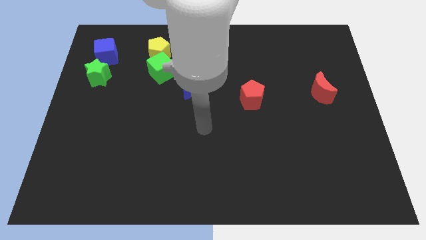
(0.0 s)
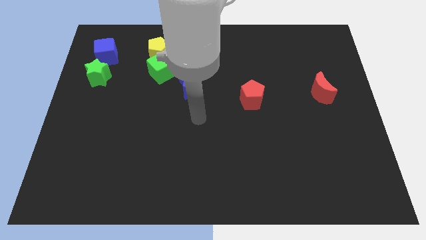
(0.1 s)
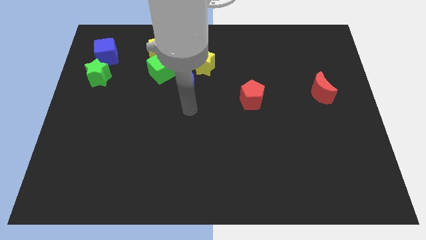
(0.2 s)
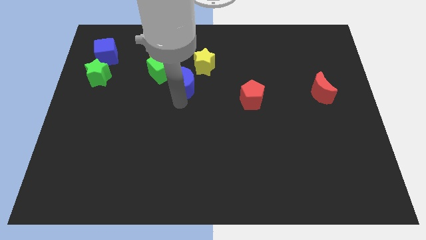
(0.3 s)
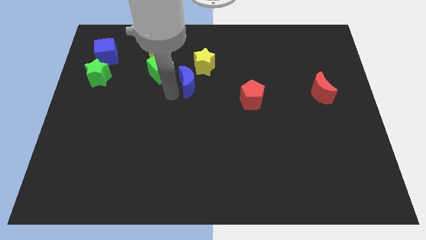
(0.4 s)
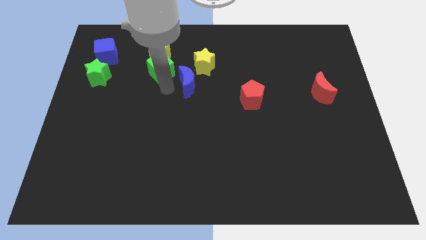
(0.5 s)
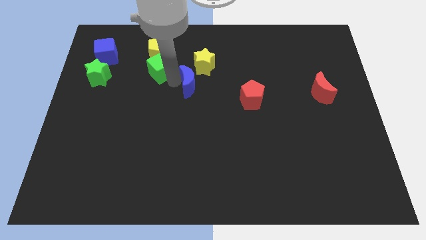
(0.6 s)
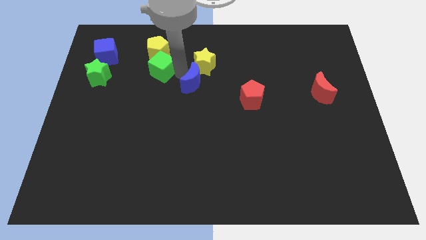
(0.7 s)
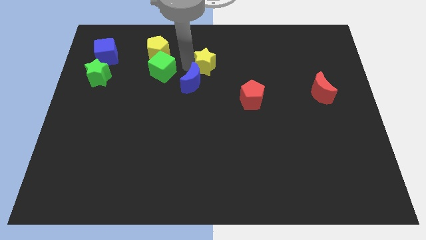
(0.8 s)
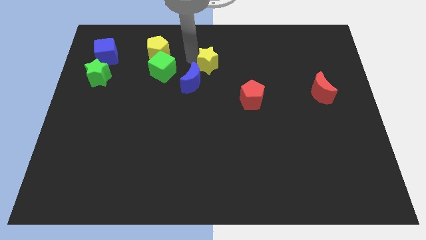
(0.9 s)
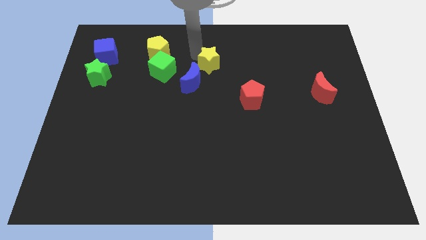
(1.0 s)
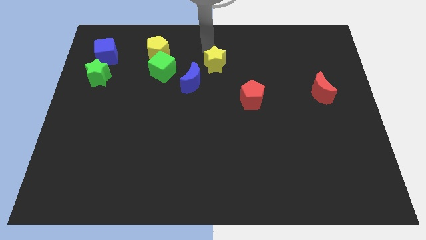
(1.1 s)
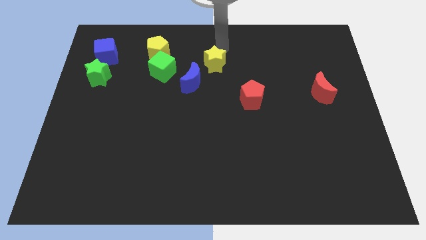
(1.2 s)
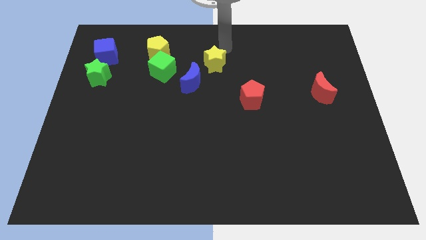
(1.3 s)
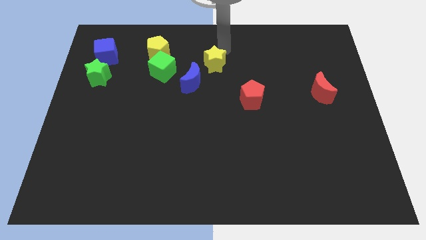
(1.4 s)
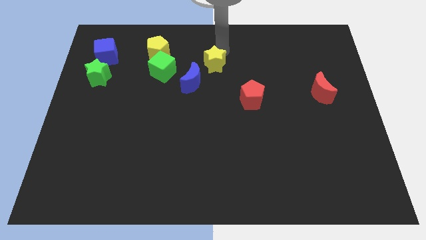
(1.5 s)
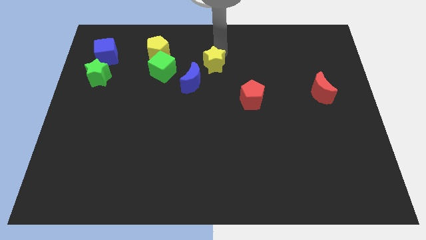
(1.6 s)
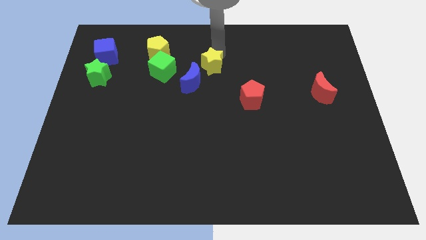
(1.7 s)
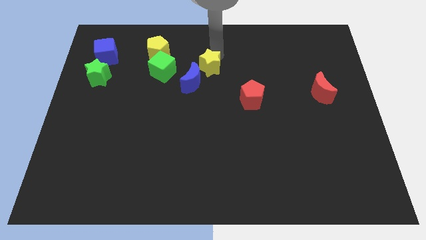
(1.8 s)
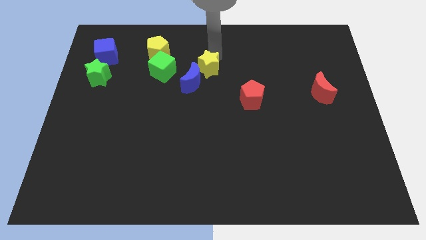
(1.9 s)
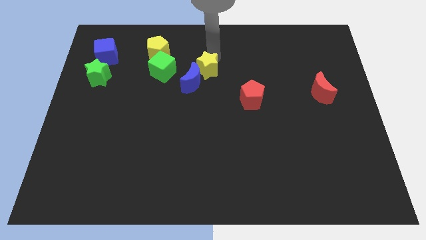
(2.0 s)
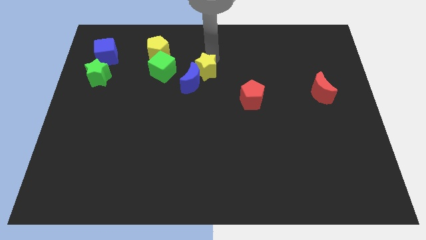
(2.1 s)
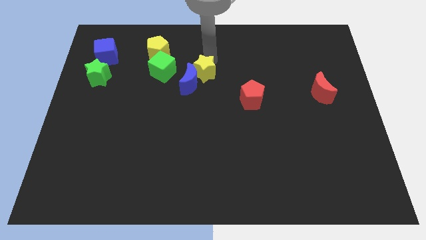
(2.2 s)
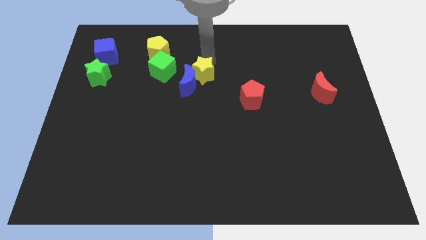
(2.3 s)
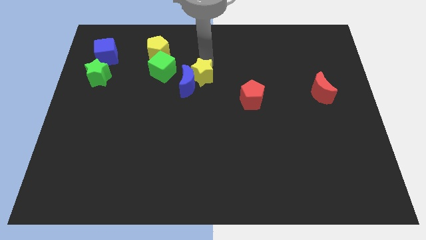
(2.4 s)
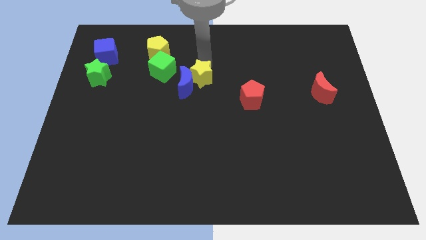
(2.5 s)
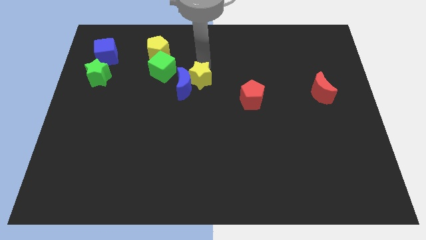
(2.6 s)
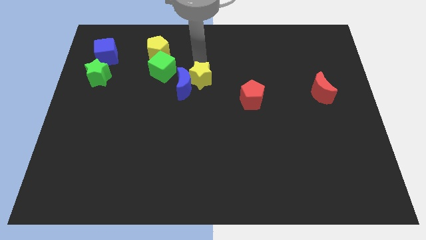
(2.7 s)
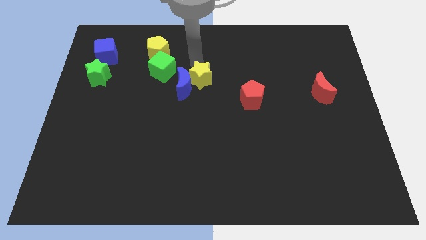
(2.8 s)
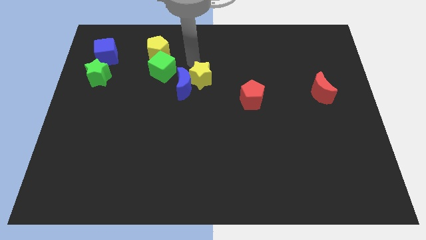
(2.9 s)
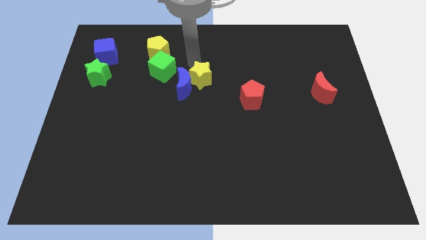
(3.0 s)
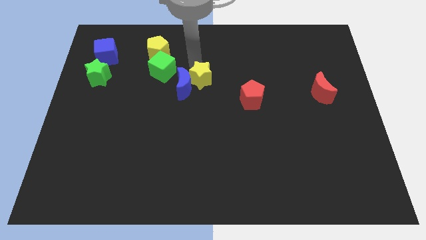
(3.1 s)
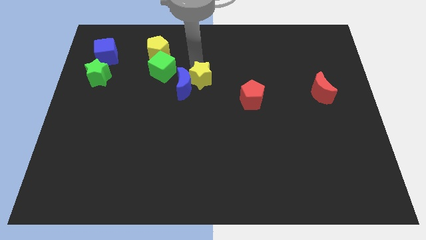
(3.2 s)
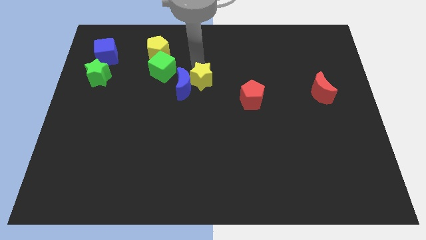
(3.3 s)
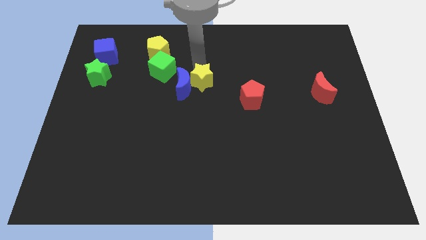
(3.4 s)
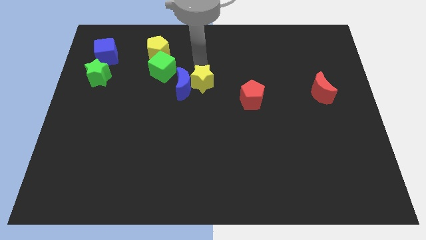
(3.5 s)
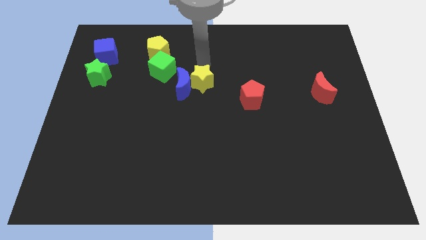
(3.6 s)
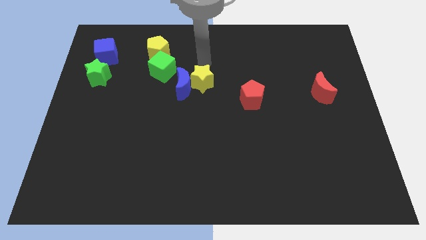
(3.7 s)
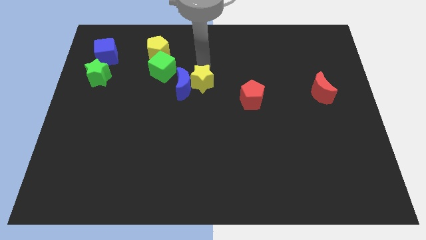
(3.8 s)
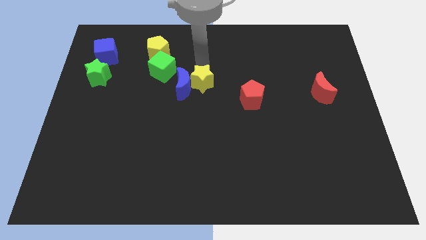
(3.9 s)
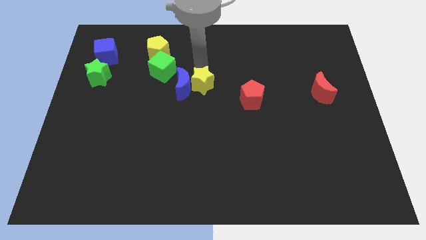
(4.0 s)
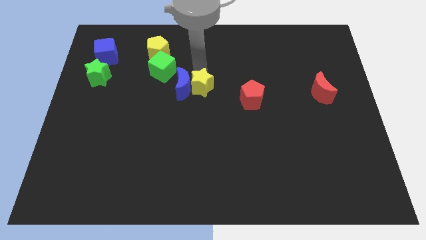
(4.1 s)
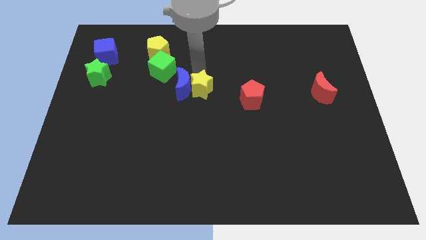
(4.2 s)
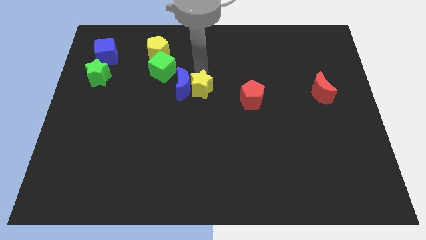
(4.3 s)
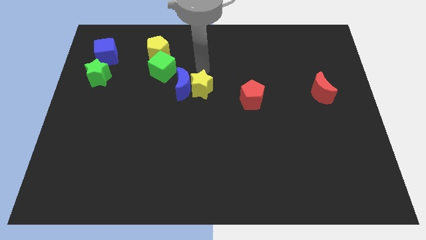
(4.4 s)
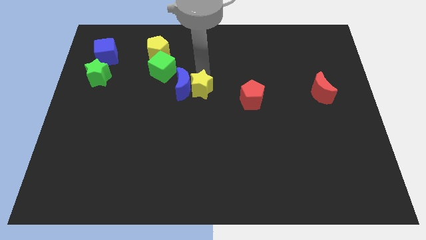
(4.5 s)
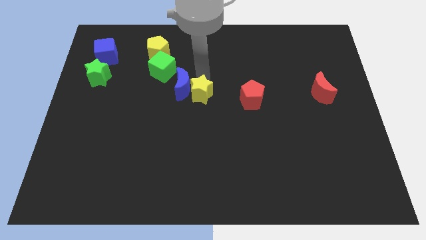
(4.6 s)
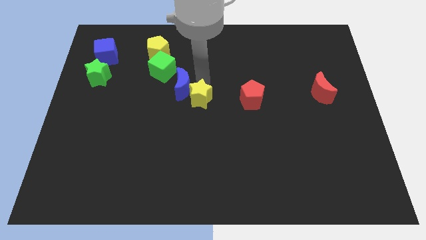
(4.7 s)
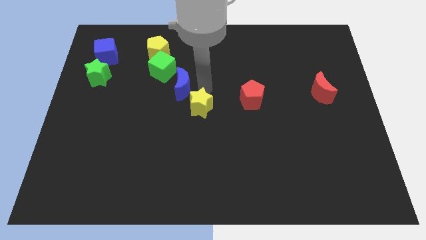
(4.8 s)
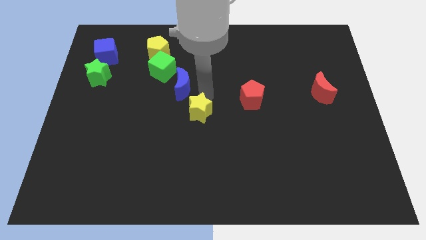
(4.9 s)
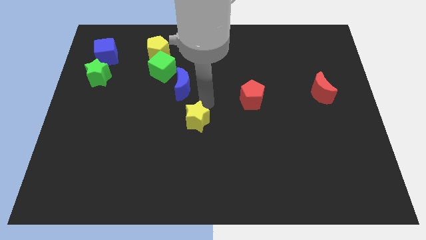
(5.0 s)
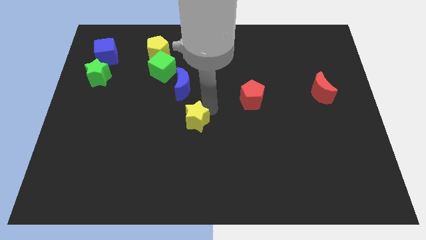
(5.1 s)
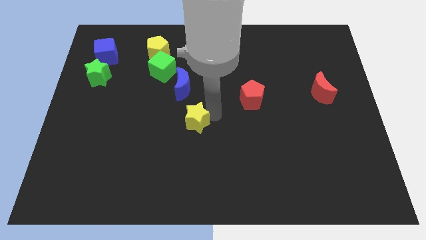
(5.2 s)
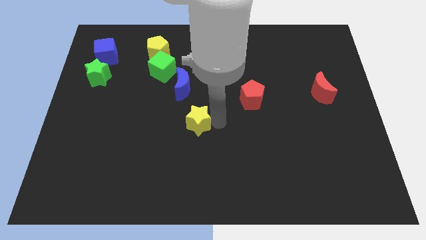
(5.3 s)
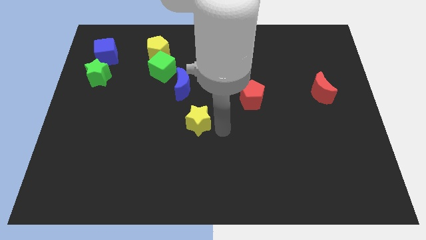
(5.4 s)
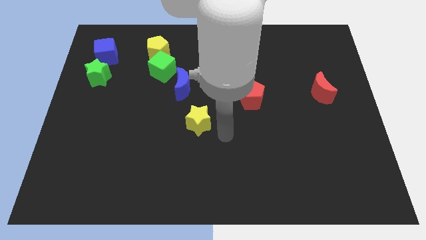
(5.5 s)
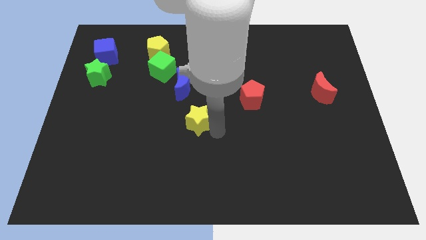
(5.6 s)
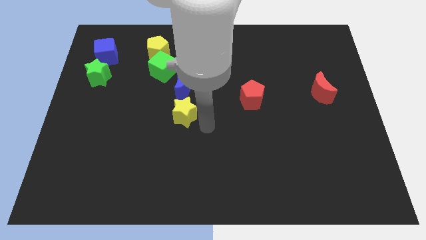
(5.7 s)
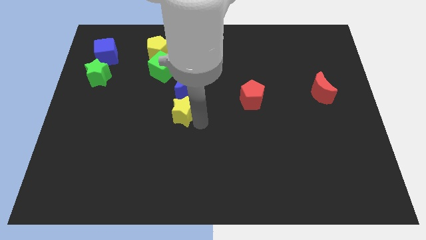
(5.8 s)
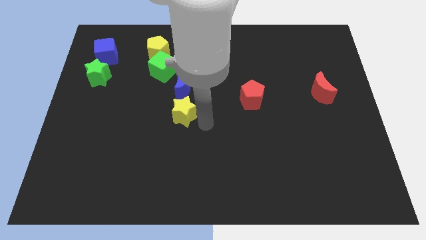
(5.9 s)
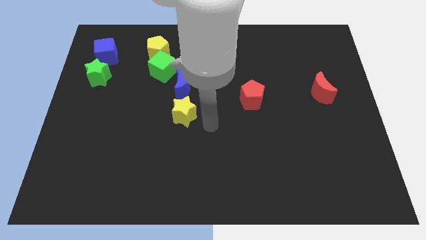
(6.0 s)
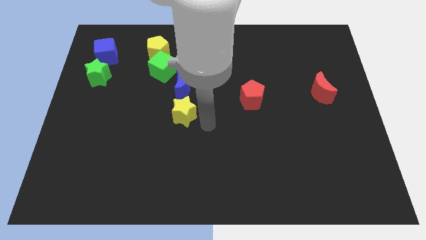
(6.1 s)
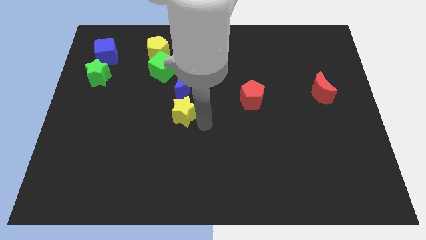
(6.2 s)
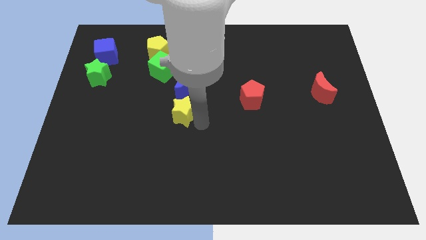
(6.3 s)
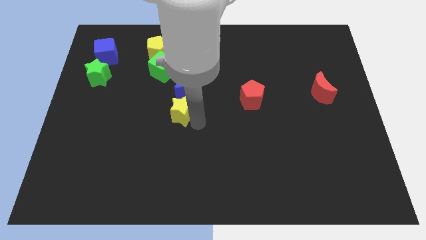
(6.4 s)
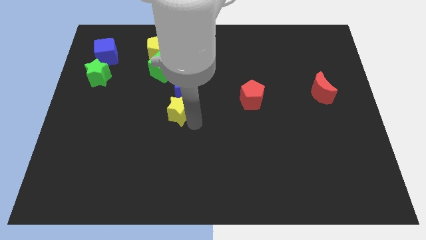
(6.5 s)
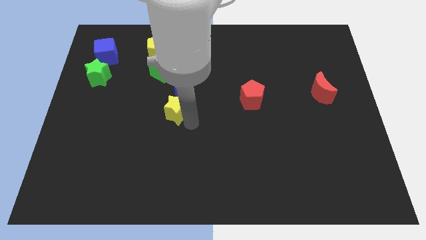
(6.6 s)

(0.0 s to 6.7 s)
slide the yellow star to the bottom left of the blue moon

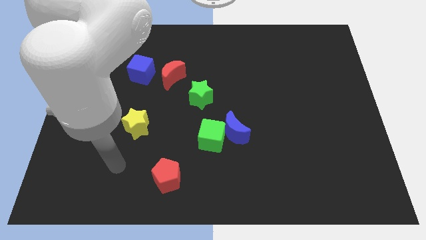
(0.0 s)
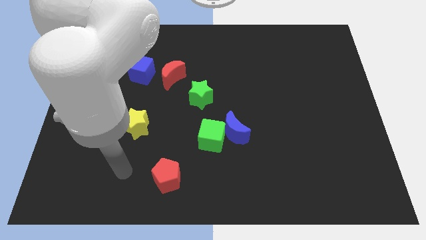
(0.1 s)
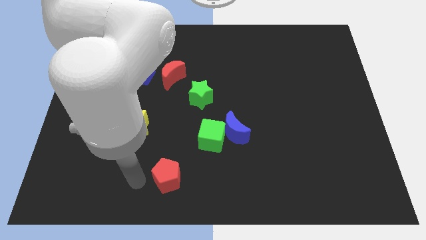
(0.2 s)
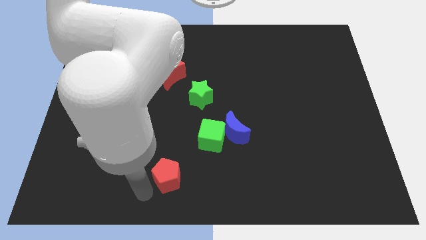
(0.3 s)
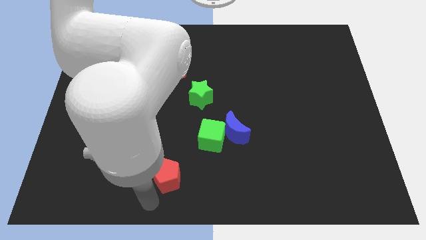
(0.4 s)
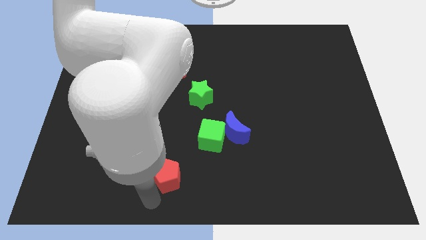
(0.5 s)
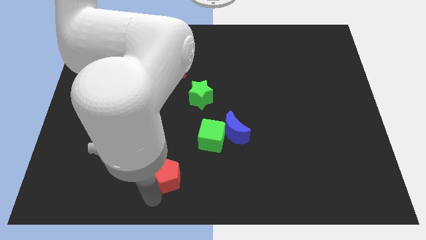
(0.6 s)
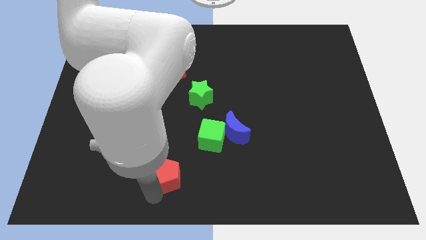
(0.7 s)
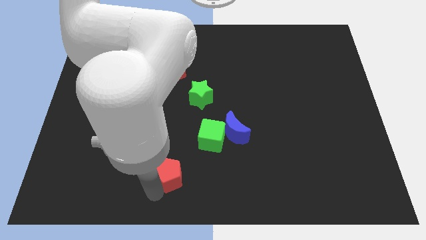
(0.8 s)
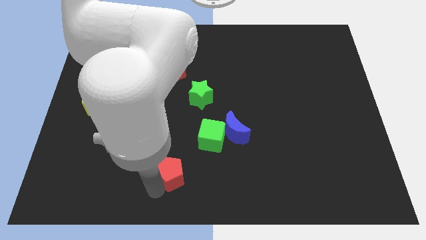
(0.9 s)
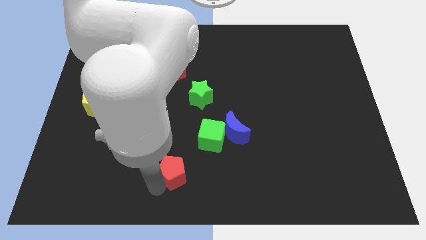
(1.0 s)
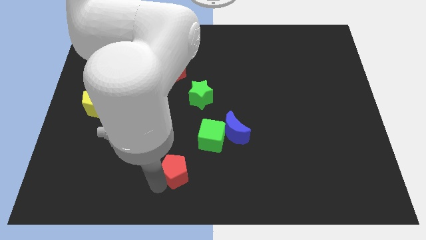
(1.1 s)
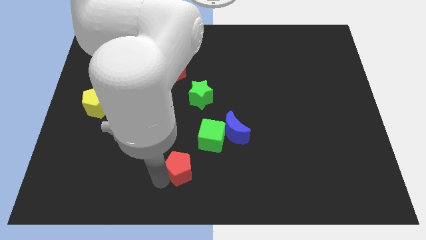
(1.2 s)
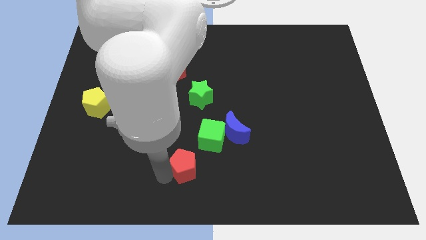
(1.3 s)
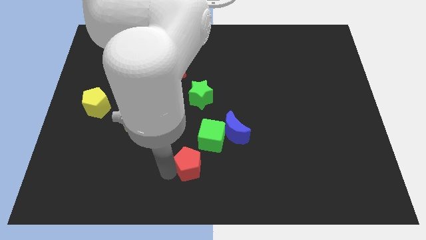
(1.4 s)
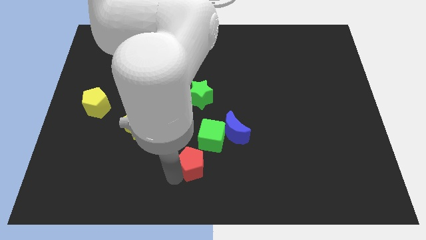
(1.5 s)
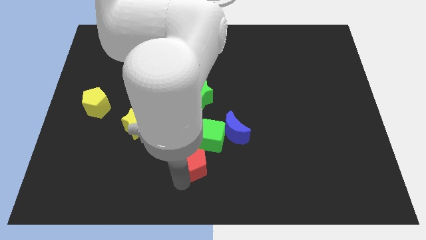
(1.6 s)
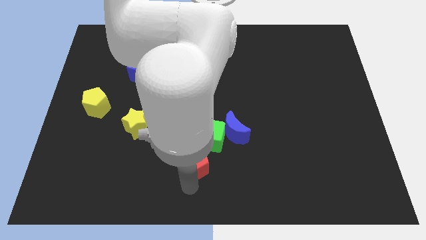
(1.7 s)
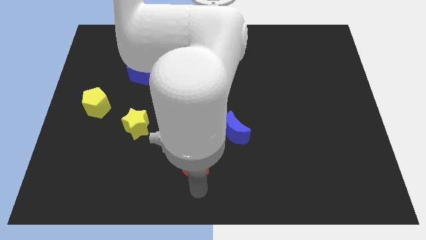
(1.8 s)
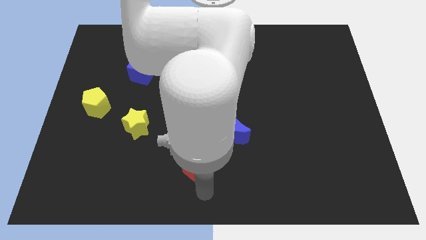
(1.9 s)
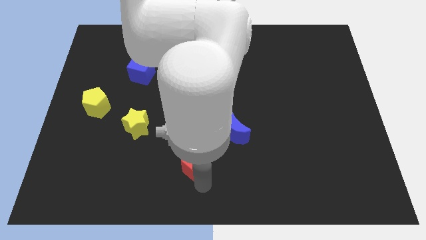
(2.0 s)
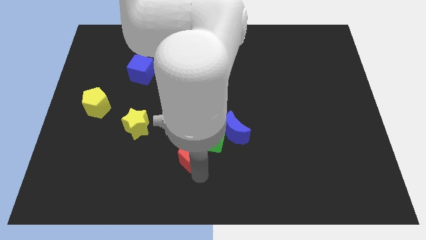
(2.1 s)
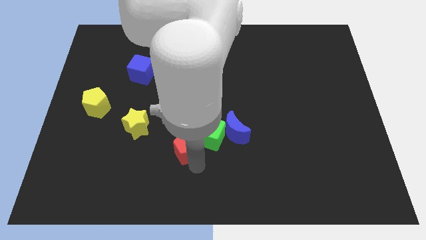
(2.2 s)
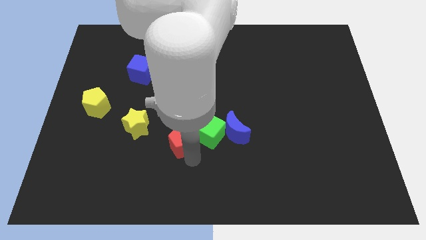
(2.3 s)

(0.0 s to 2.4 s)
push the red pentagon to the right of the yellow star
